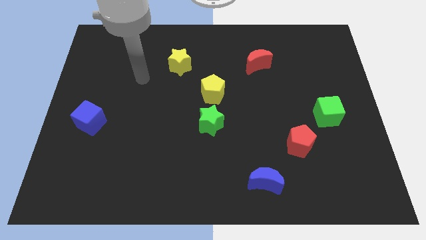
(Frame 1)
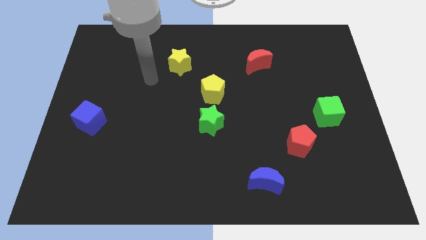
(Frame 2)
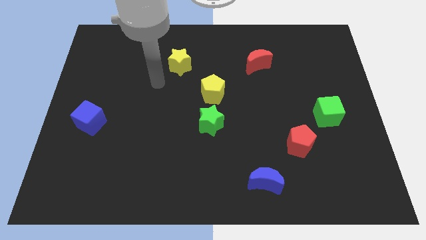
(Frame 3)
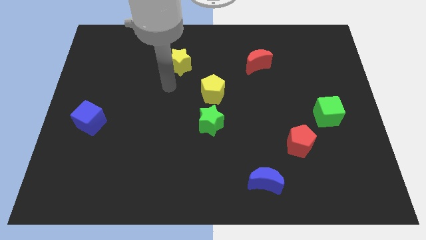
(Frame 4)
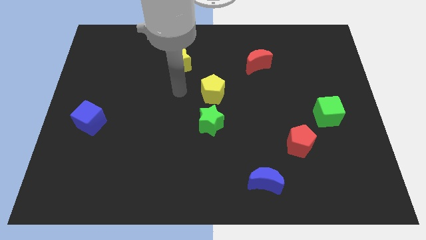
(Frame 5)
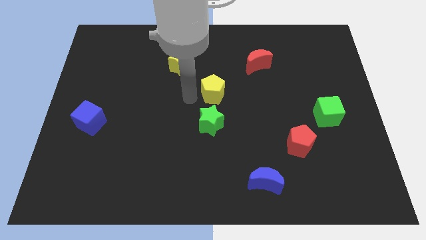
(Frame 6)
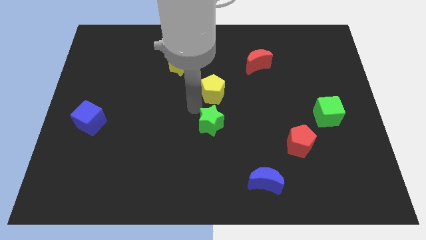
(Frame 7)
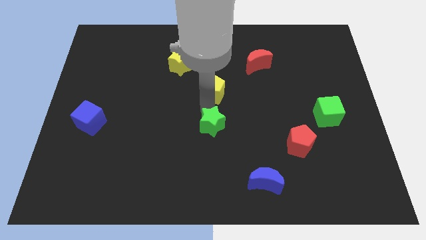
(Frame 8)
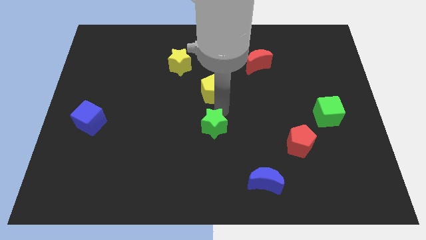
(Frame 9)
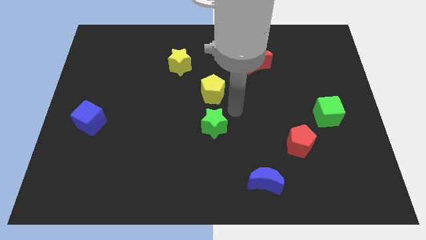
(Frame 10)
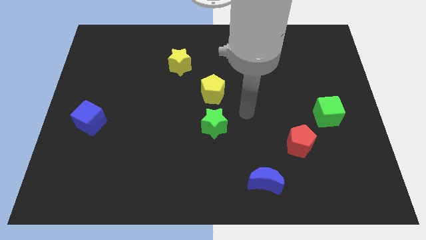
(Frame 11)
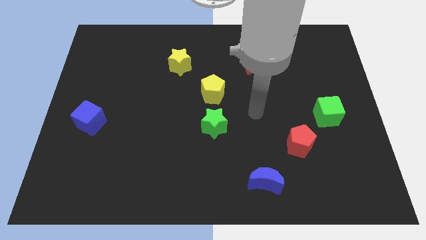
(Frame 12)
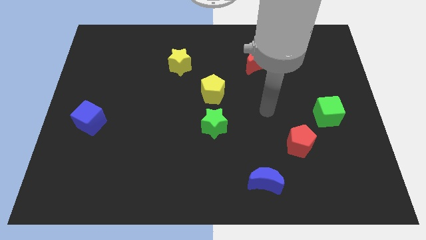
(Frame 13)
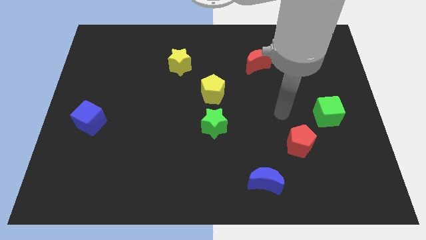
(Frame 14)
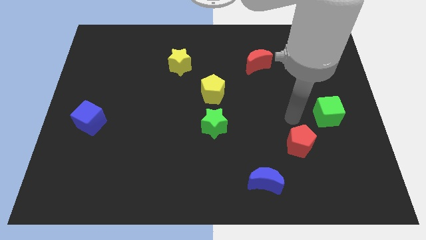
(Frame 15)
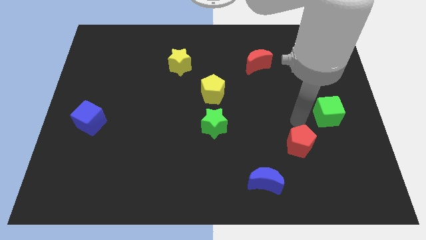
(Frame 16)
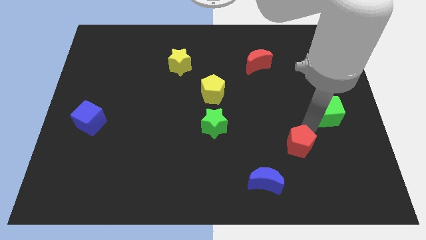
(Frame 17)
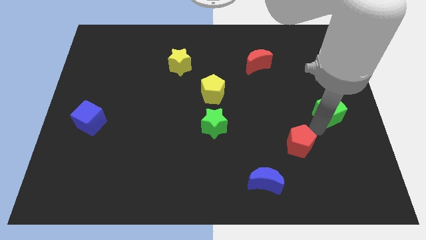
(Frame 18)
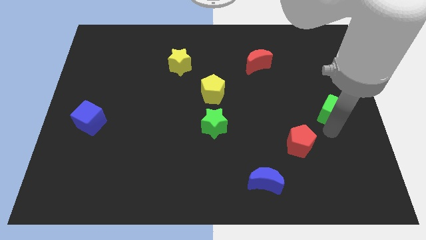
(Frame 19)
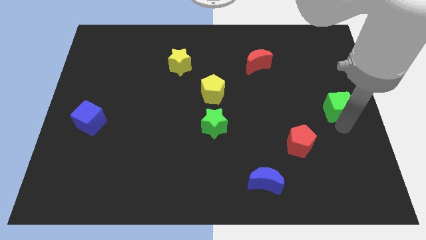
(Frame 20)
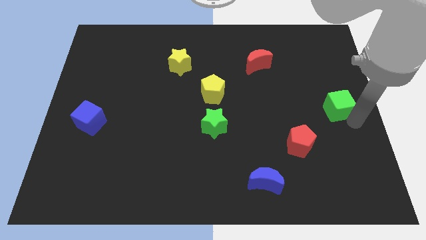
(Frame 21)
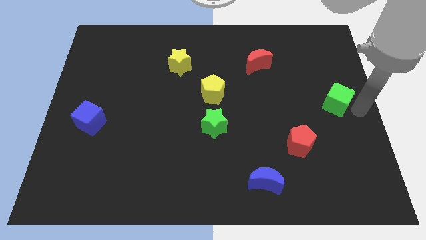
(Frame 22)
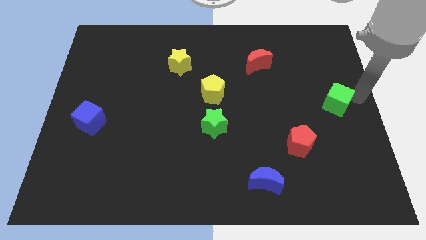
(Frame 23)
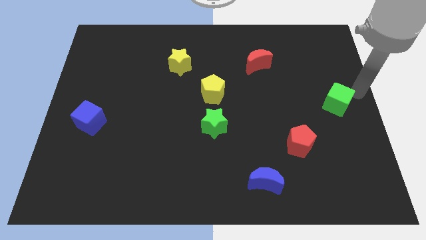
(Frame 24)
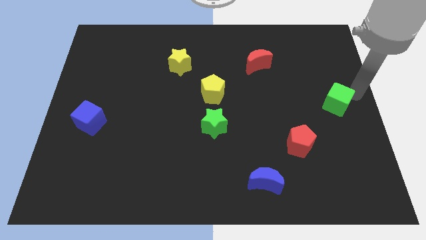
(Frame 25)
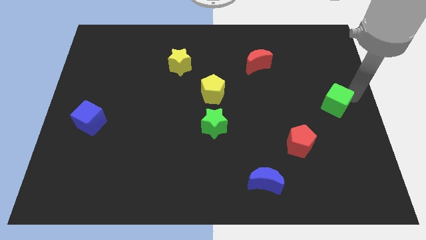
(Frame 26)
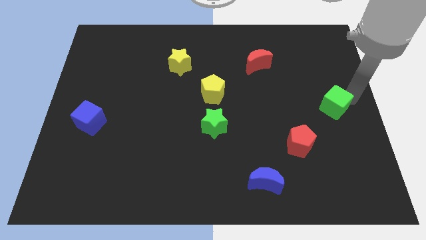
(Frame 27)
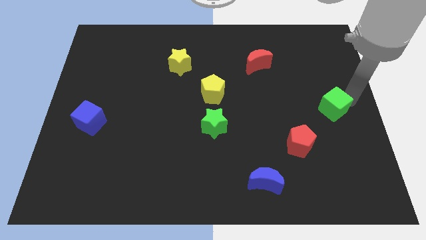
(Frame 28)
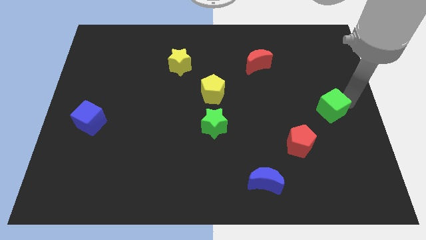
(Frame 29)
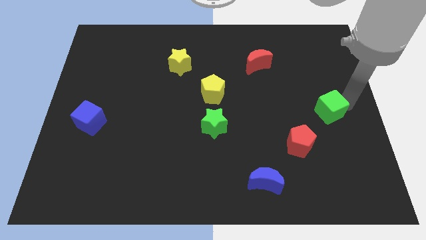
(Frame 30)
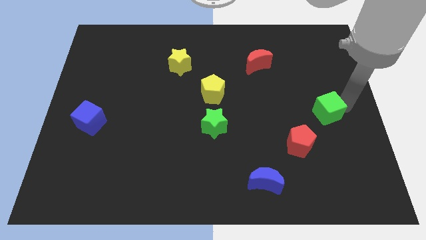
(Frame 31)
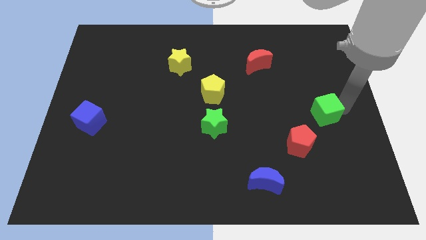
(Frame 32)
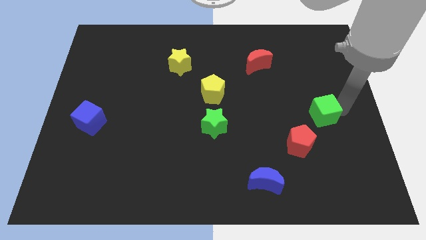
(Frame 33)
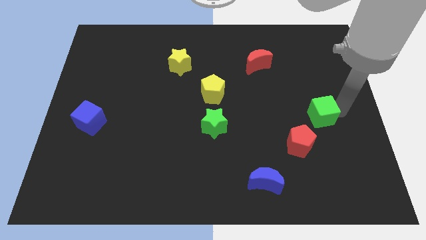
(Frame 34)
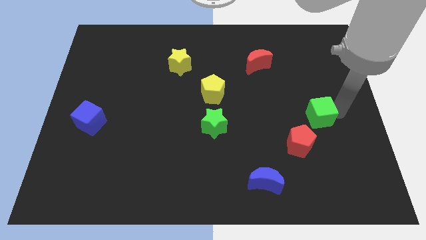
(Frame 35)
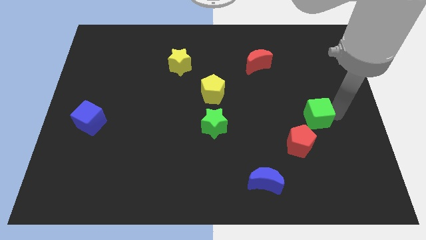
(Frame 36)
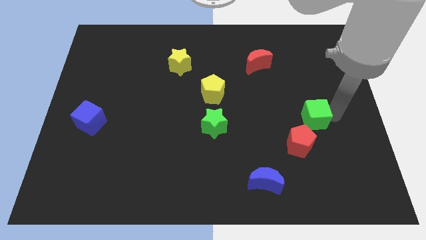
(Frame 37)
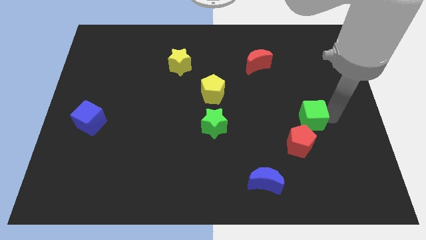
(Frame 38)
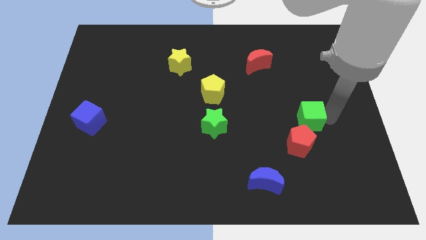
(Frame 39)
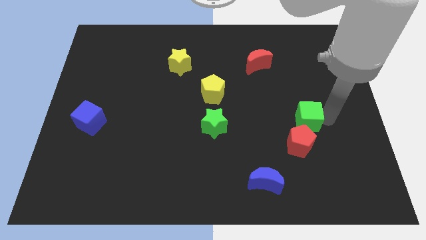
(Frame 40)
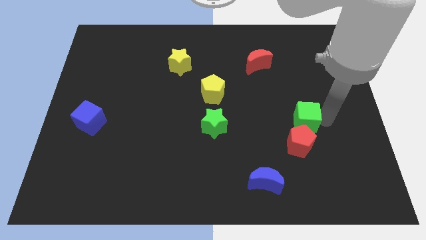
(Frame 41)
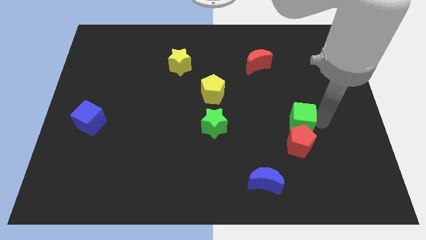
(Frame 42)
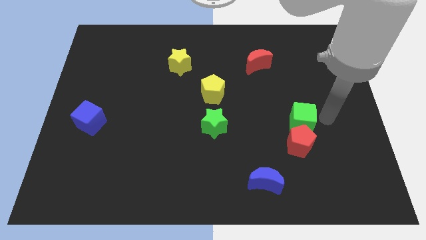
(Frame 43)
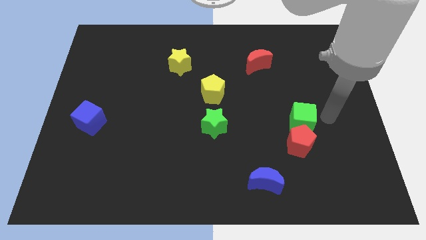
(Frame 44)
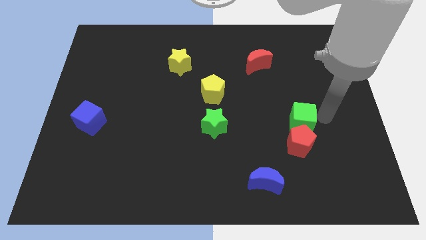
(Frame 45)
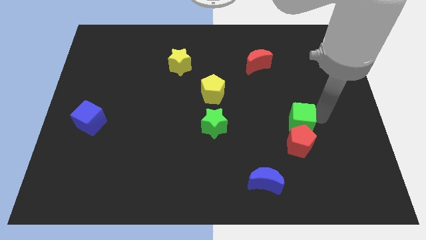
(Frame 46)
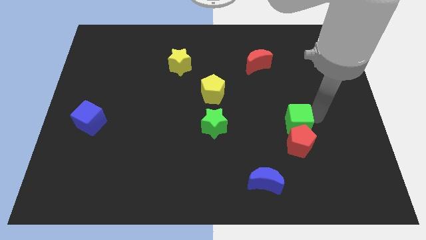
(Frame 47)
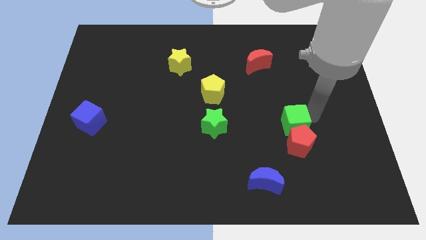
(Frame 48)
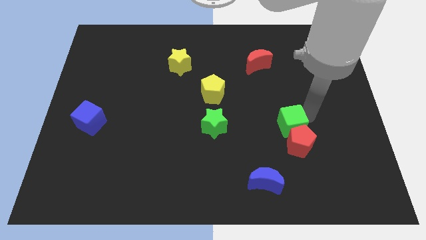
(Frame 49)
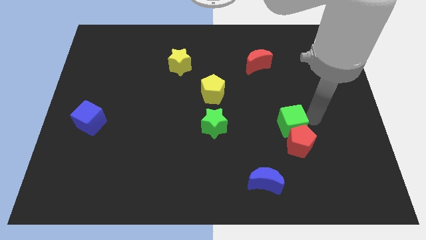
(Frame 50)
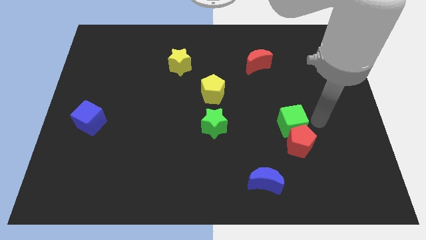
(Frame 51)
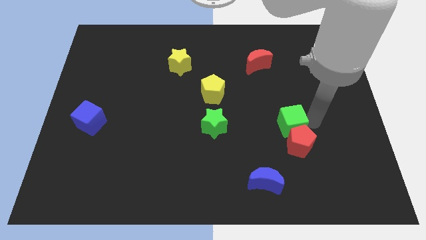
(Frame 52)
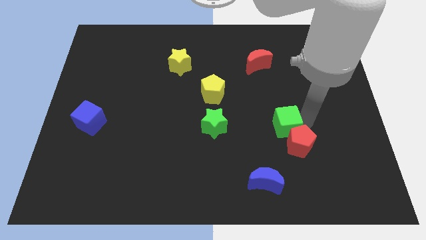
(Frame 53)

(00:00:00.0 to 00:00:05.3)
push the green cube to the right side of the green star

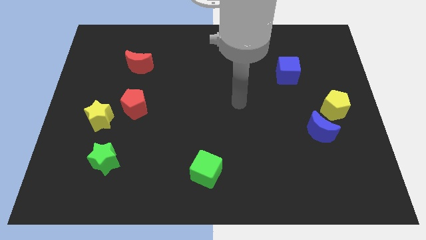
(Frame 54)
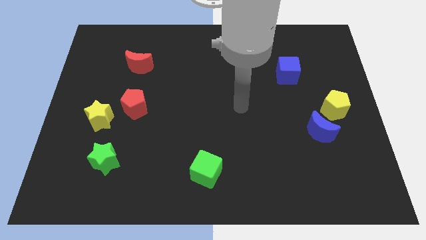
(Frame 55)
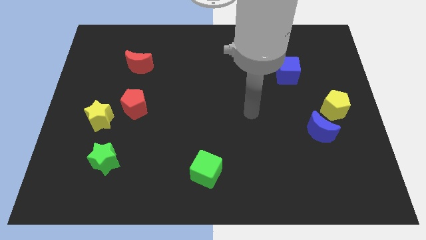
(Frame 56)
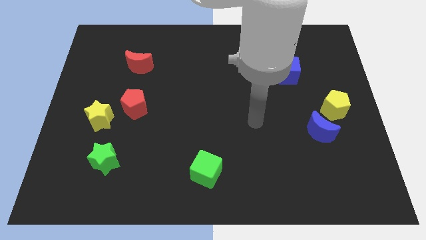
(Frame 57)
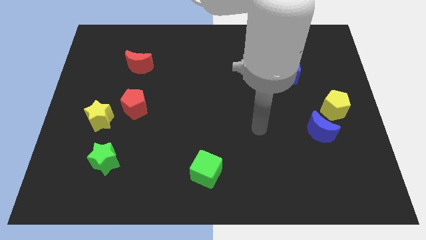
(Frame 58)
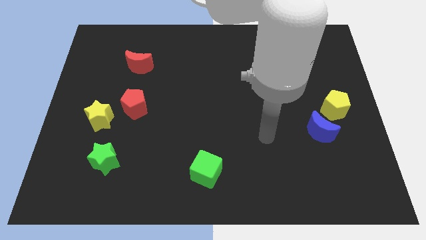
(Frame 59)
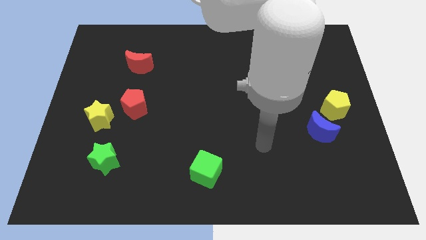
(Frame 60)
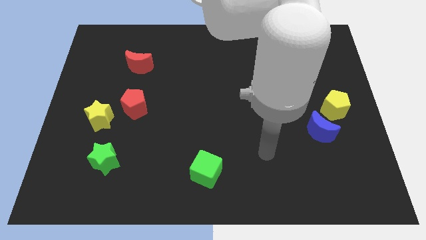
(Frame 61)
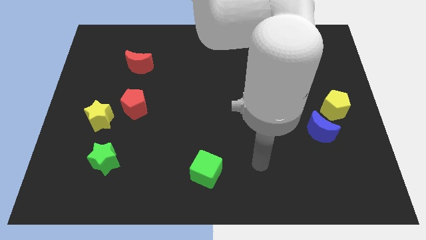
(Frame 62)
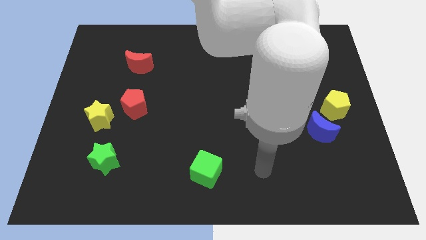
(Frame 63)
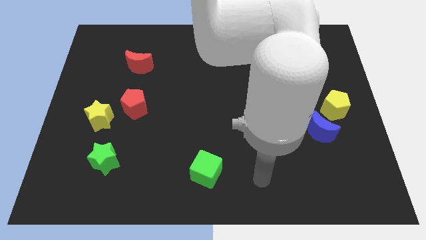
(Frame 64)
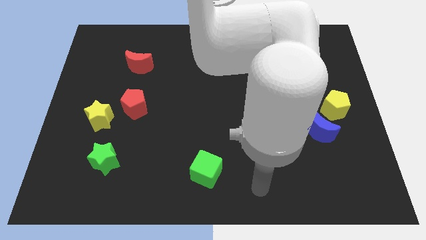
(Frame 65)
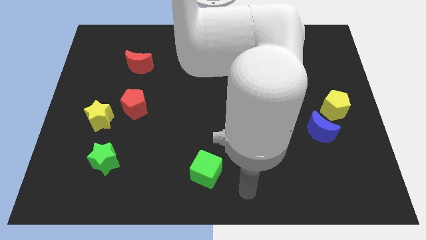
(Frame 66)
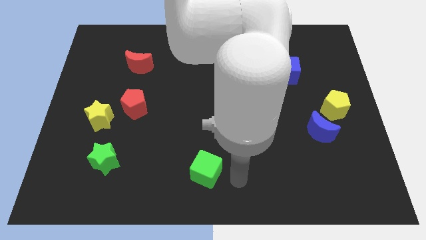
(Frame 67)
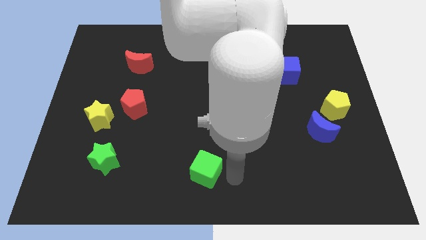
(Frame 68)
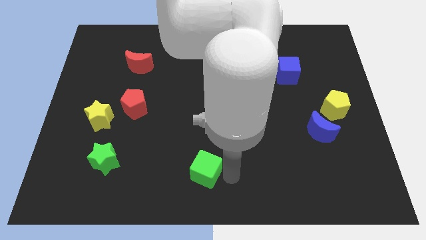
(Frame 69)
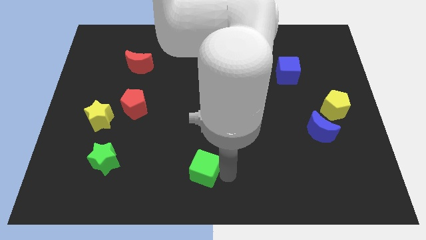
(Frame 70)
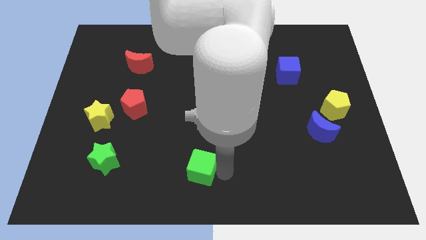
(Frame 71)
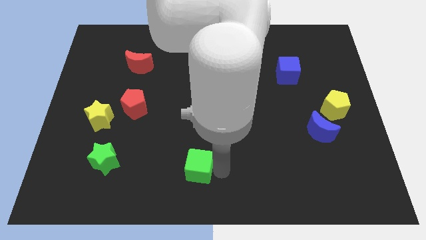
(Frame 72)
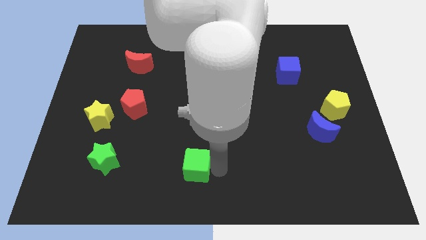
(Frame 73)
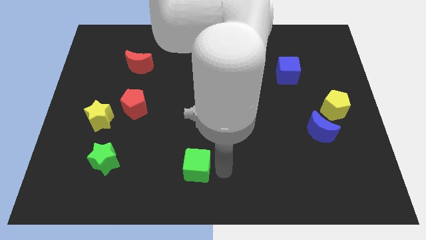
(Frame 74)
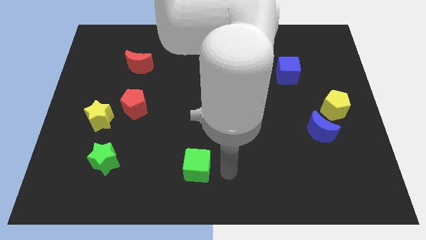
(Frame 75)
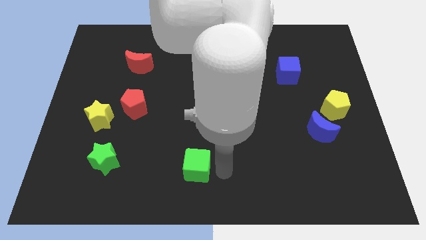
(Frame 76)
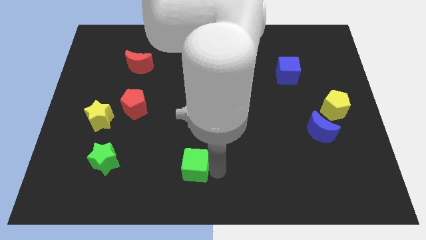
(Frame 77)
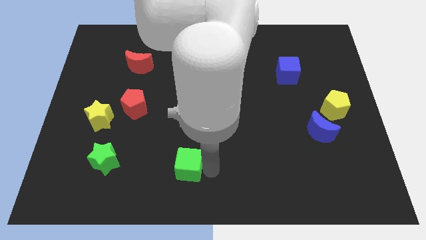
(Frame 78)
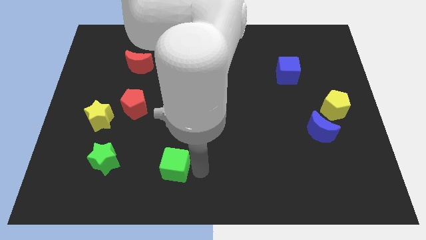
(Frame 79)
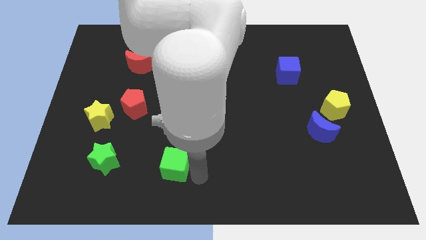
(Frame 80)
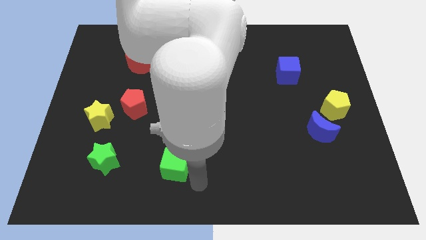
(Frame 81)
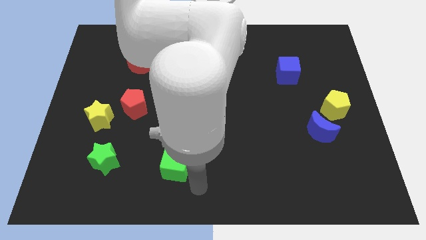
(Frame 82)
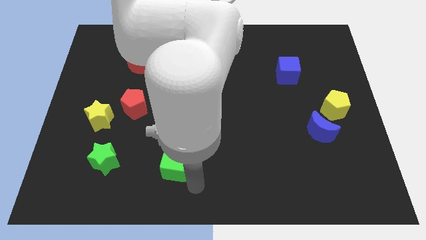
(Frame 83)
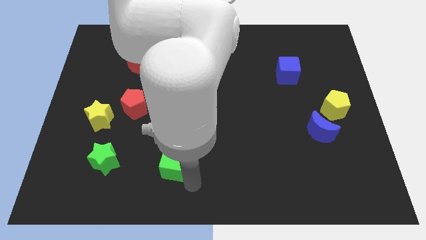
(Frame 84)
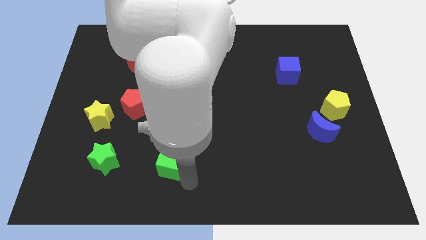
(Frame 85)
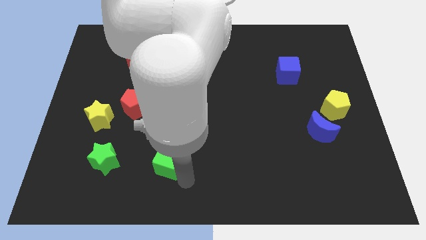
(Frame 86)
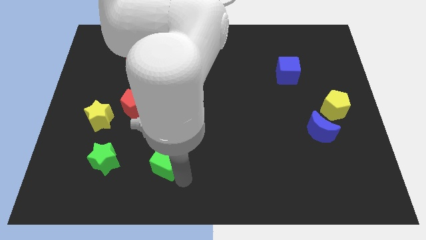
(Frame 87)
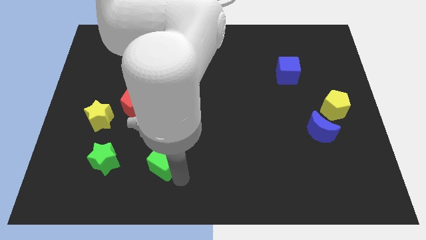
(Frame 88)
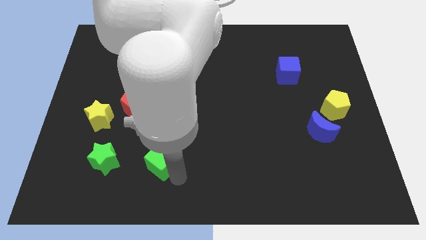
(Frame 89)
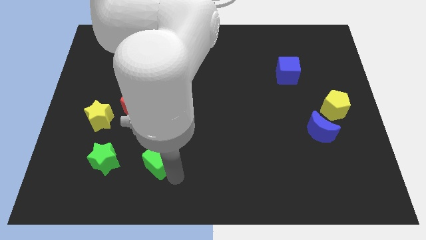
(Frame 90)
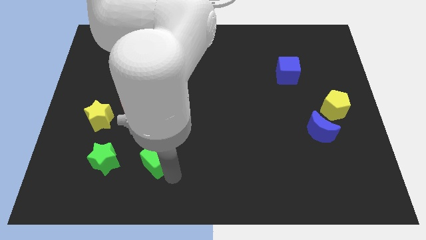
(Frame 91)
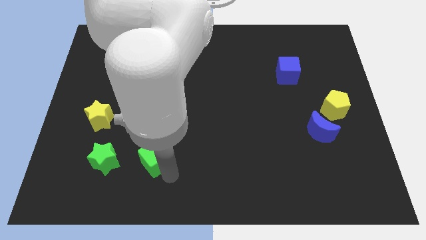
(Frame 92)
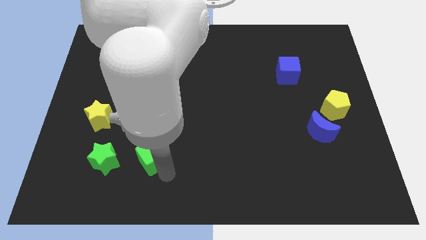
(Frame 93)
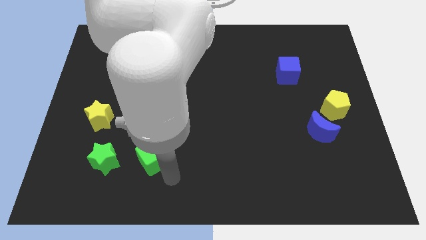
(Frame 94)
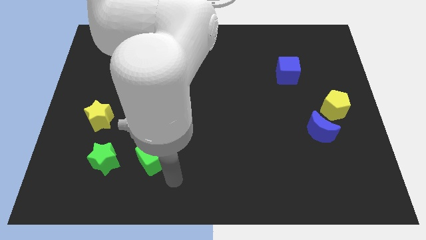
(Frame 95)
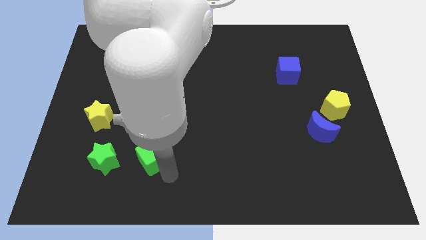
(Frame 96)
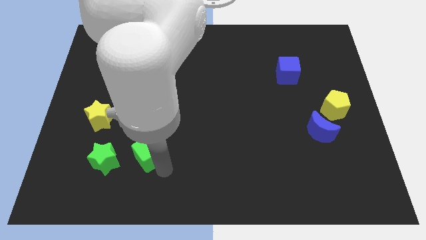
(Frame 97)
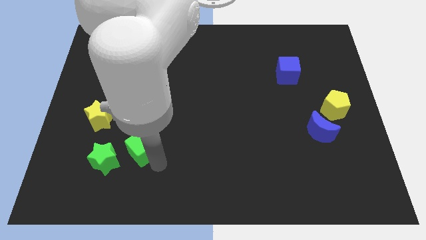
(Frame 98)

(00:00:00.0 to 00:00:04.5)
slide the green cube to the top right of the green star
